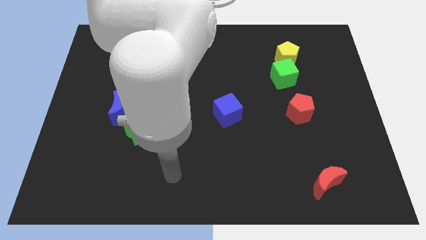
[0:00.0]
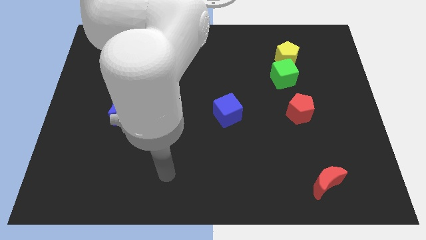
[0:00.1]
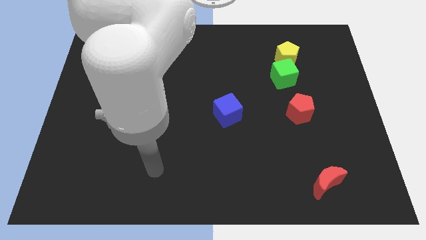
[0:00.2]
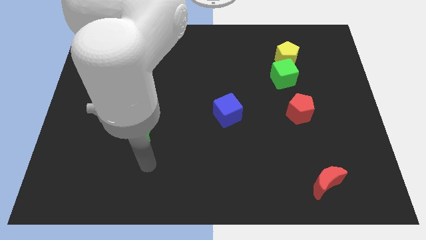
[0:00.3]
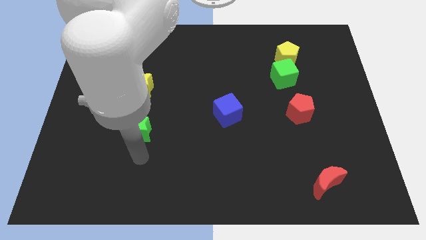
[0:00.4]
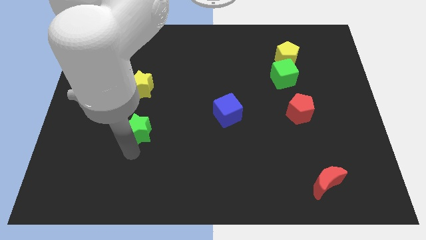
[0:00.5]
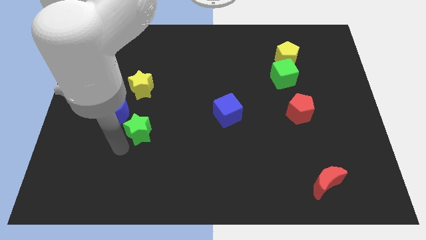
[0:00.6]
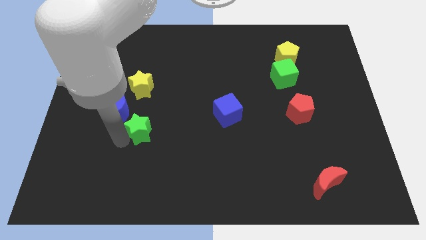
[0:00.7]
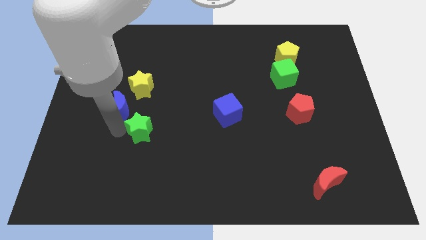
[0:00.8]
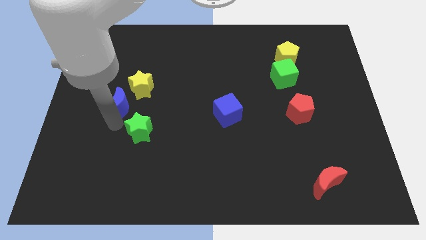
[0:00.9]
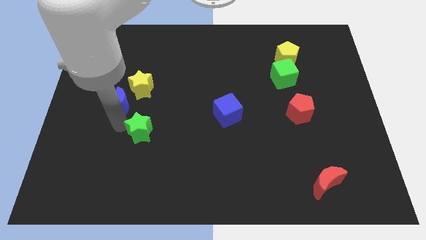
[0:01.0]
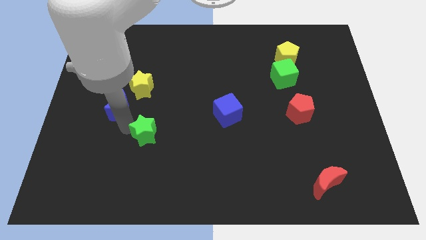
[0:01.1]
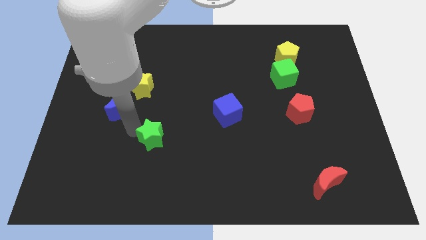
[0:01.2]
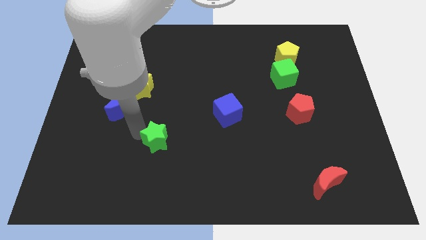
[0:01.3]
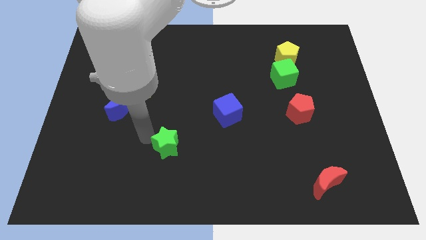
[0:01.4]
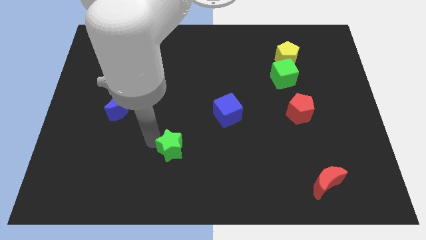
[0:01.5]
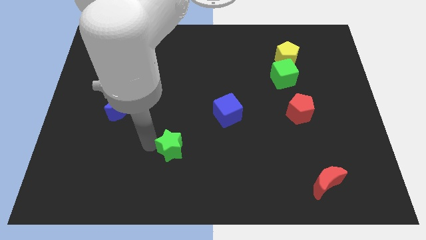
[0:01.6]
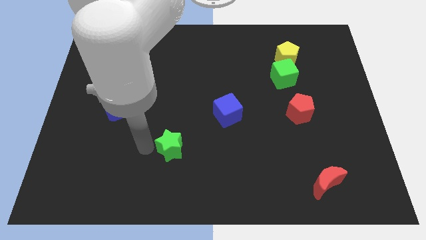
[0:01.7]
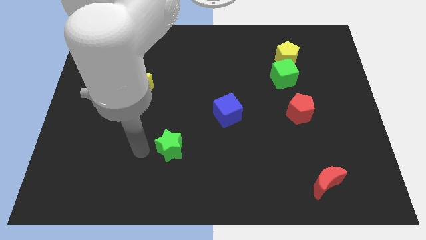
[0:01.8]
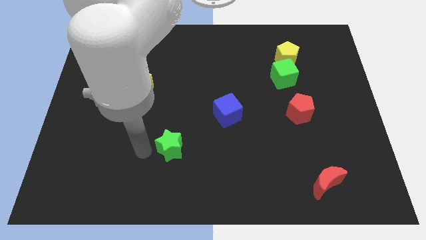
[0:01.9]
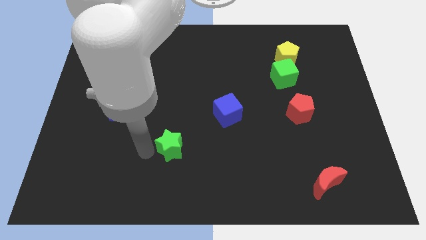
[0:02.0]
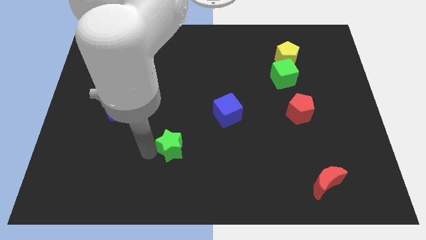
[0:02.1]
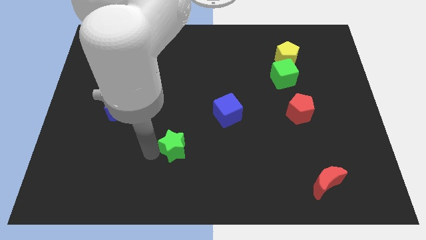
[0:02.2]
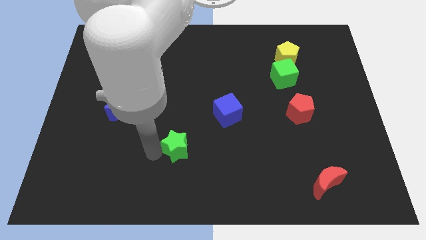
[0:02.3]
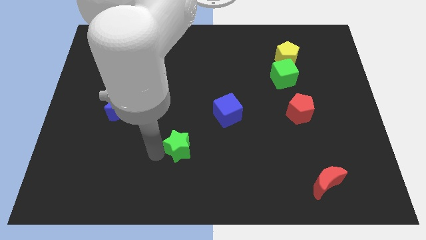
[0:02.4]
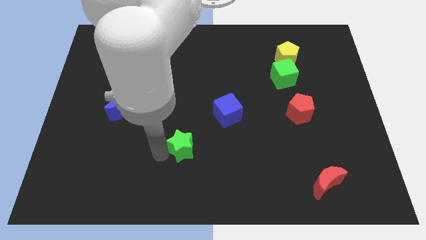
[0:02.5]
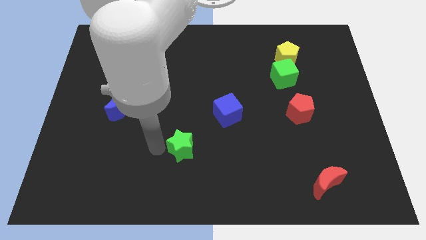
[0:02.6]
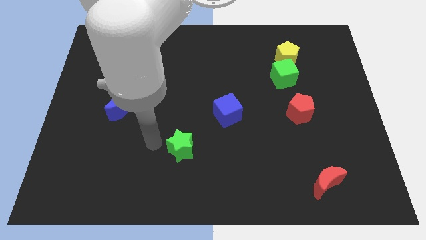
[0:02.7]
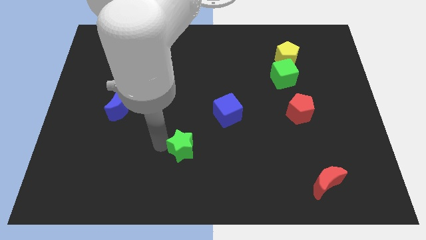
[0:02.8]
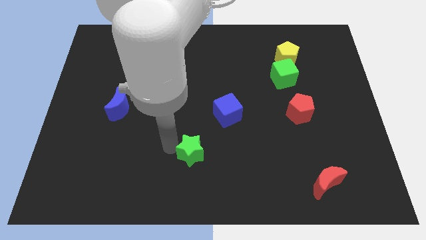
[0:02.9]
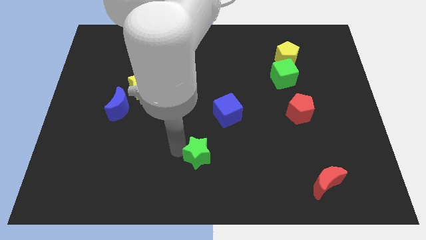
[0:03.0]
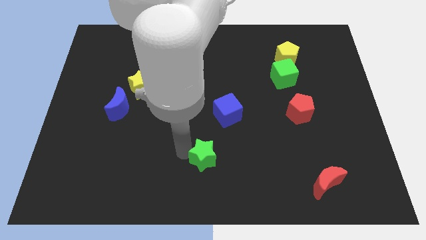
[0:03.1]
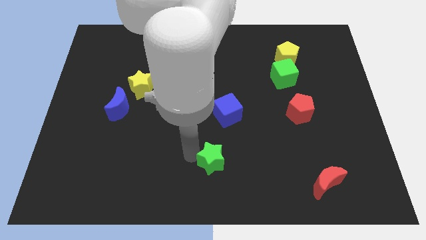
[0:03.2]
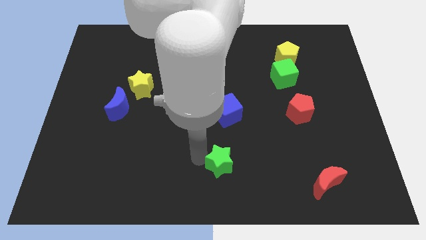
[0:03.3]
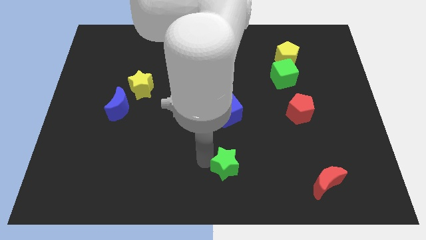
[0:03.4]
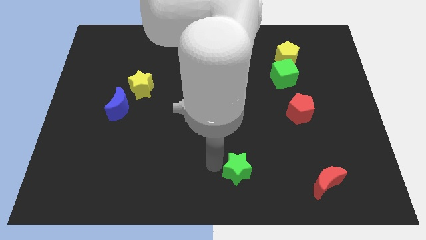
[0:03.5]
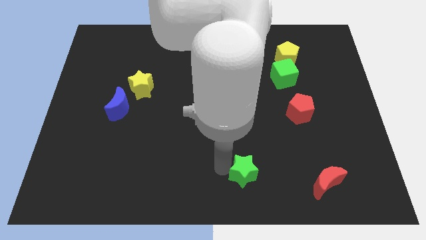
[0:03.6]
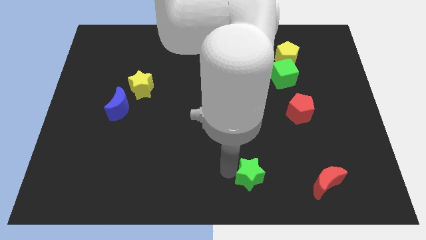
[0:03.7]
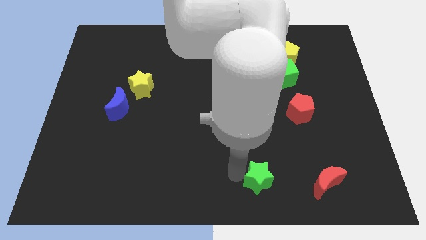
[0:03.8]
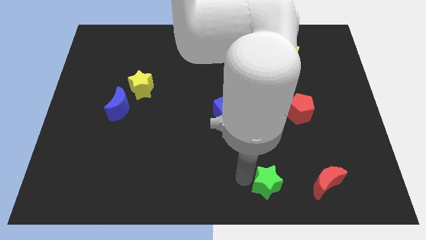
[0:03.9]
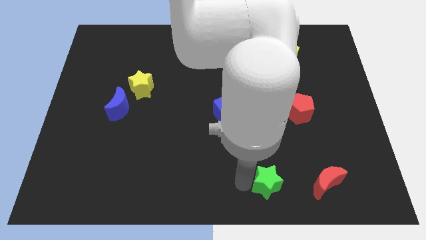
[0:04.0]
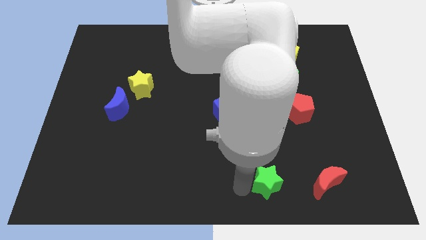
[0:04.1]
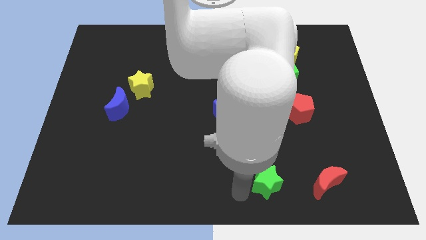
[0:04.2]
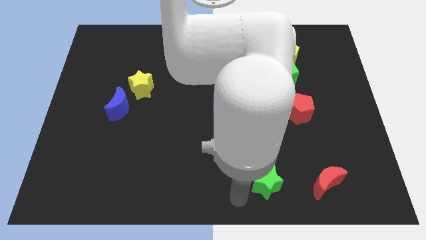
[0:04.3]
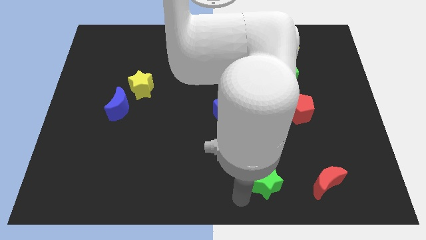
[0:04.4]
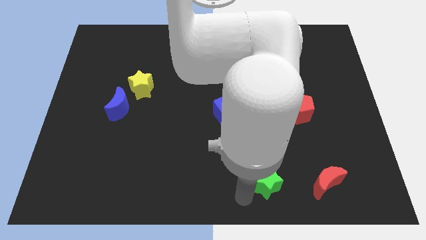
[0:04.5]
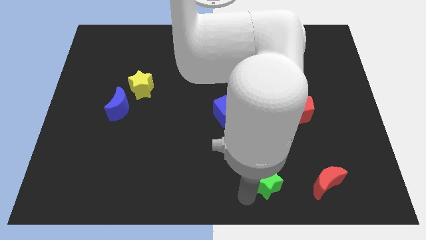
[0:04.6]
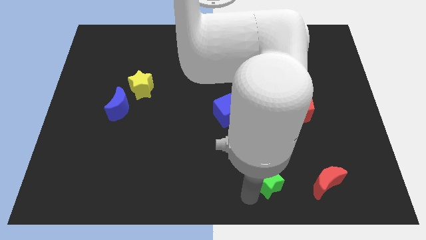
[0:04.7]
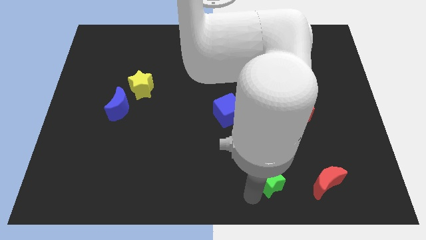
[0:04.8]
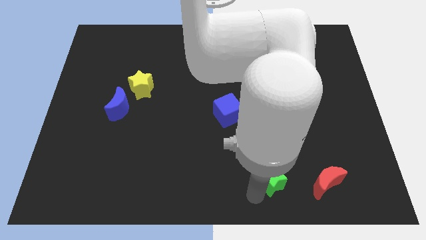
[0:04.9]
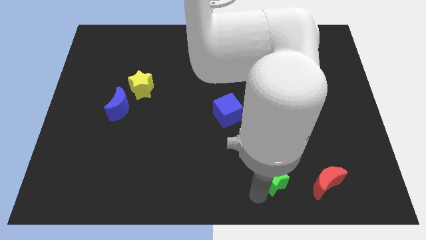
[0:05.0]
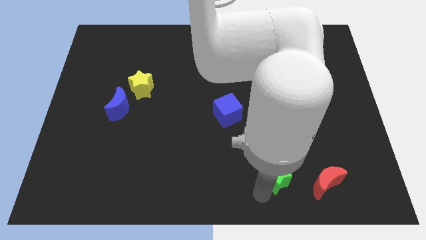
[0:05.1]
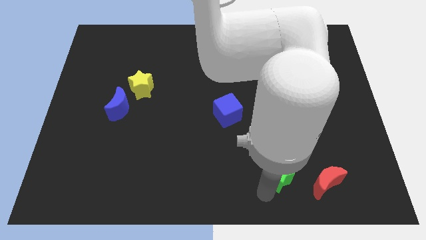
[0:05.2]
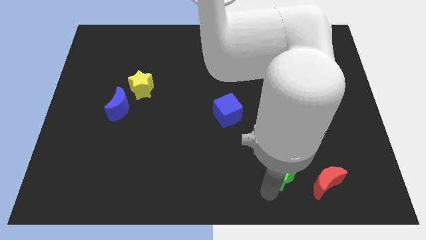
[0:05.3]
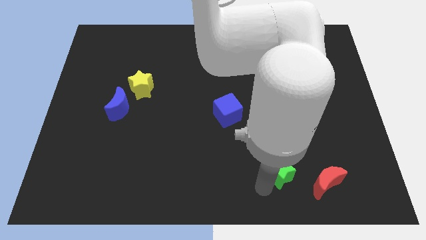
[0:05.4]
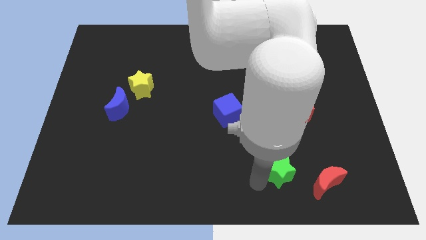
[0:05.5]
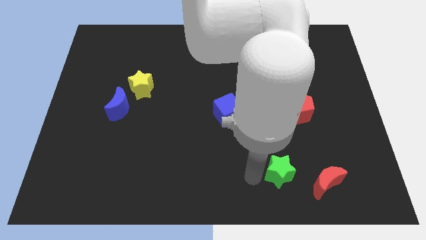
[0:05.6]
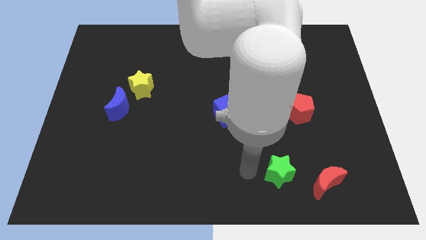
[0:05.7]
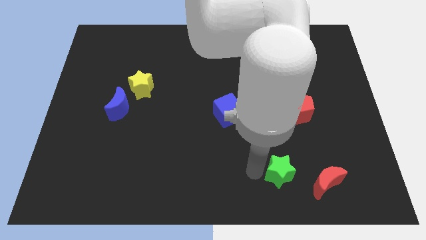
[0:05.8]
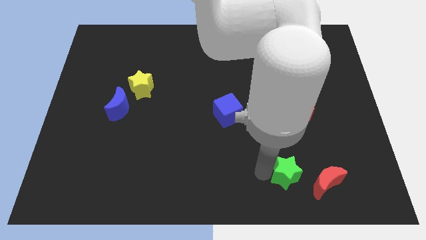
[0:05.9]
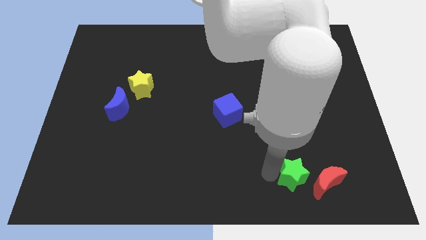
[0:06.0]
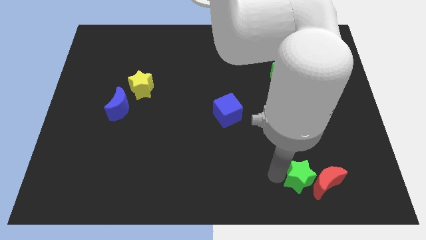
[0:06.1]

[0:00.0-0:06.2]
put the green star towards the red moon

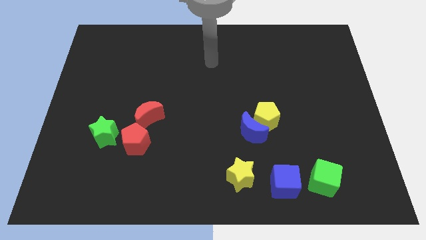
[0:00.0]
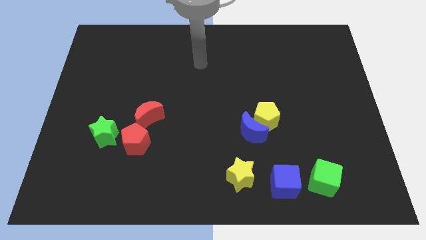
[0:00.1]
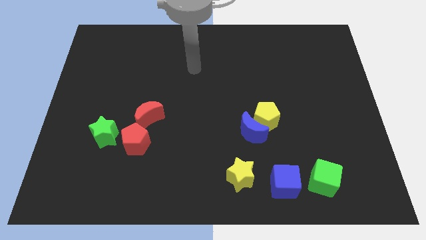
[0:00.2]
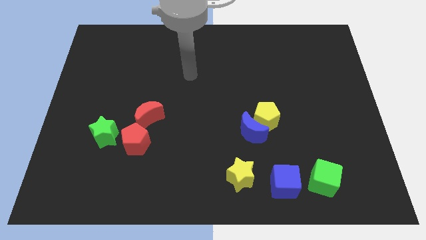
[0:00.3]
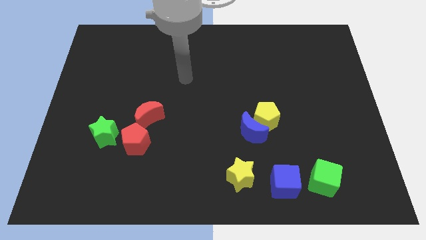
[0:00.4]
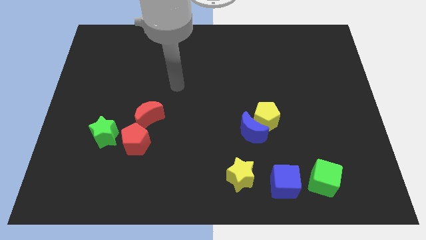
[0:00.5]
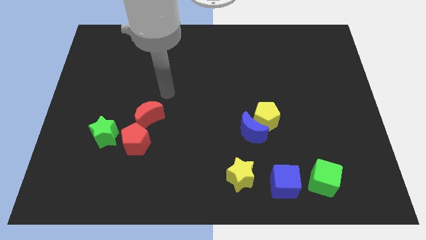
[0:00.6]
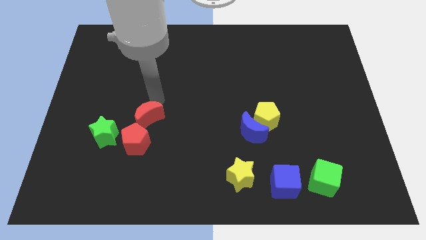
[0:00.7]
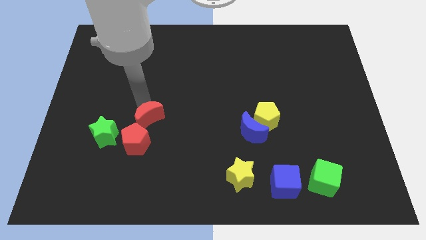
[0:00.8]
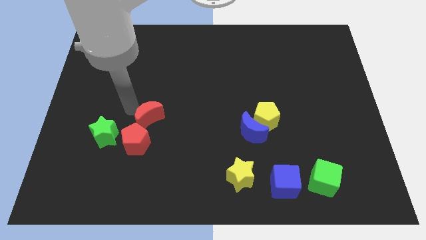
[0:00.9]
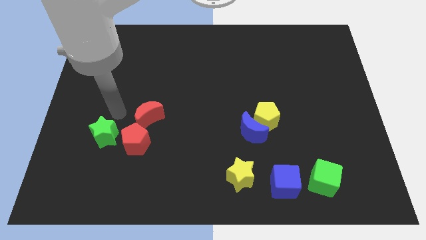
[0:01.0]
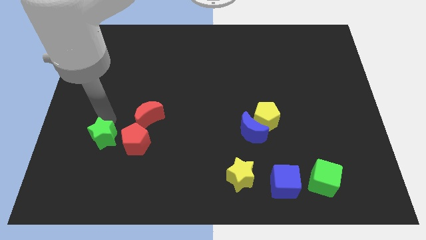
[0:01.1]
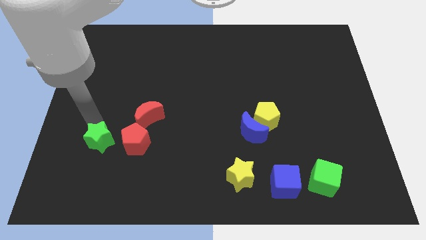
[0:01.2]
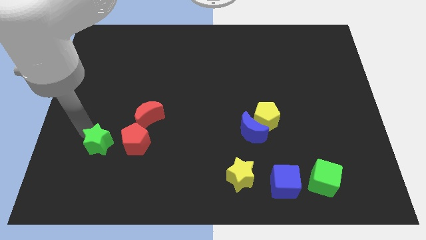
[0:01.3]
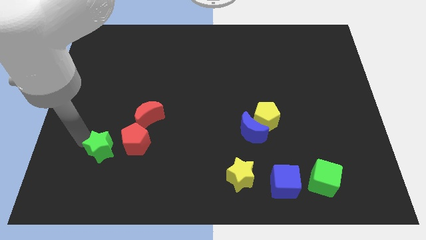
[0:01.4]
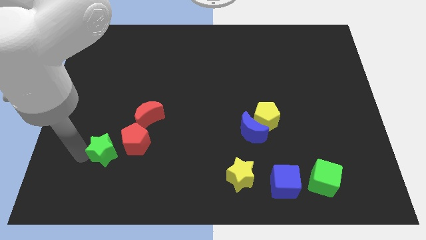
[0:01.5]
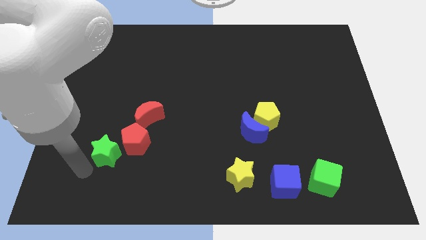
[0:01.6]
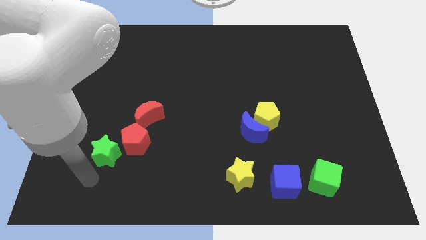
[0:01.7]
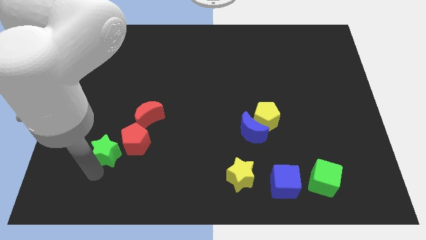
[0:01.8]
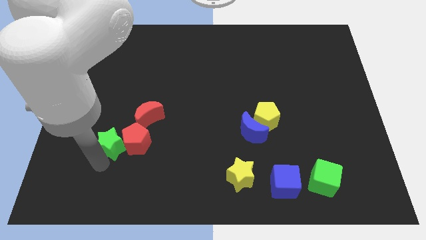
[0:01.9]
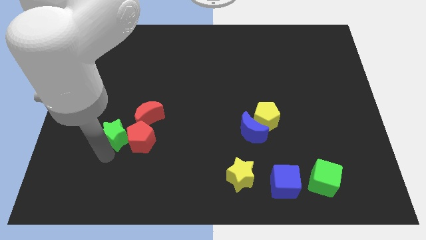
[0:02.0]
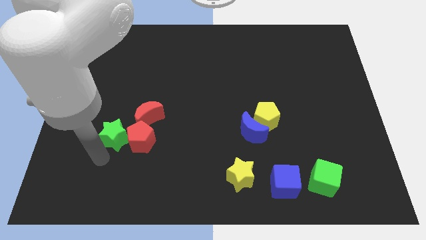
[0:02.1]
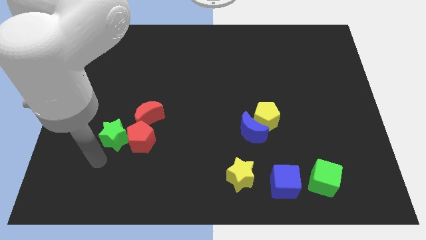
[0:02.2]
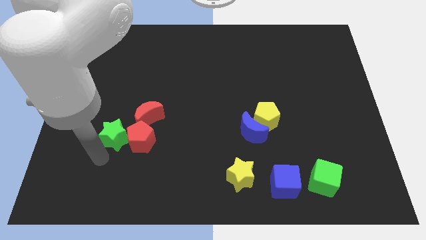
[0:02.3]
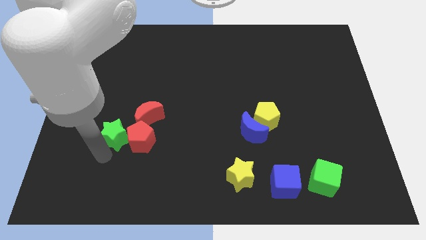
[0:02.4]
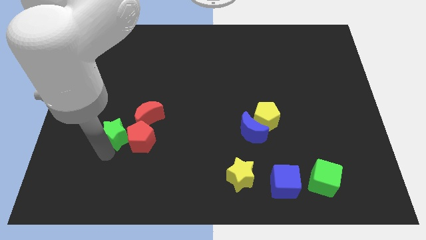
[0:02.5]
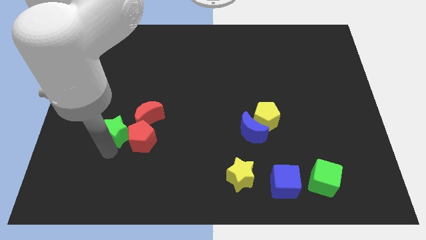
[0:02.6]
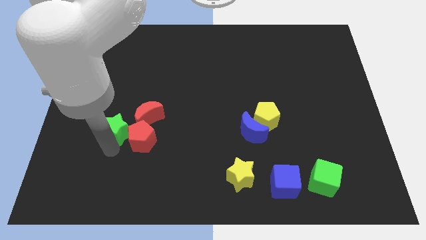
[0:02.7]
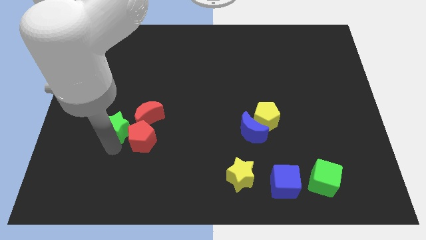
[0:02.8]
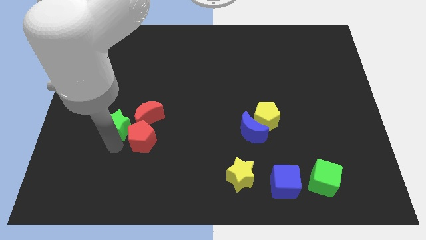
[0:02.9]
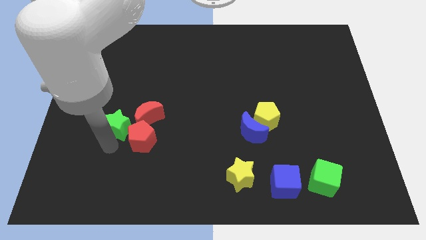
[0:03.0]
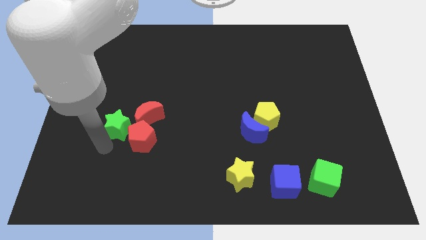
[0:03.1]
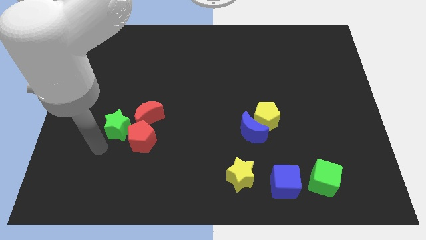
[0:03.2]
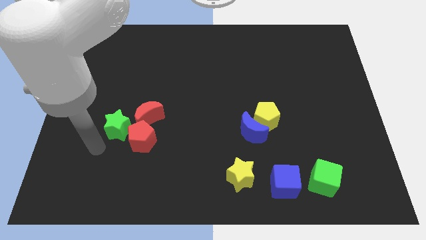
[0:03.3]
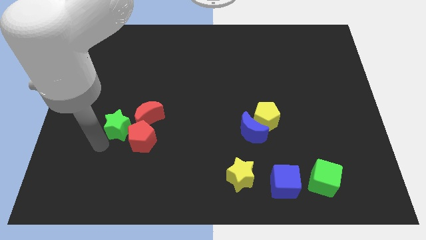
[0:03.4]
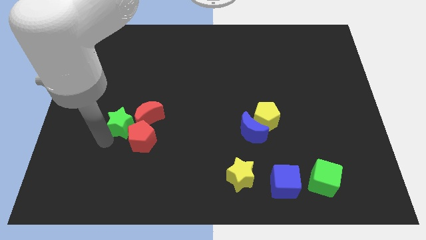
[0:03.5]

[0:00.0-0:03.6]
put the green star next to the red moon
